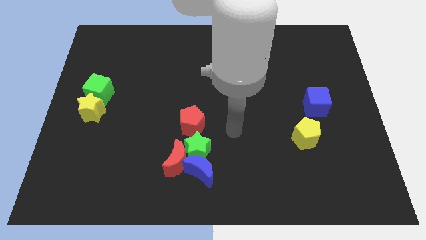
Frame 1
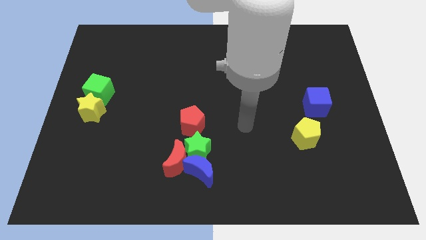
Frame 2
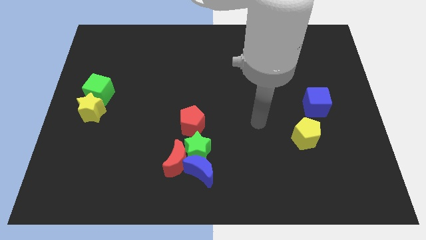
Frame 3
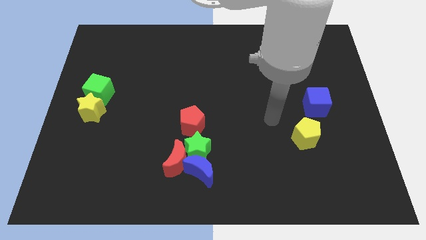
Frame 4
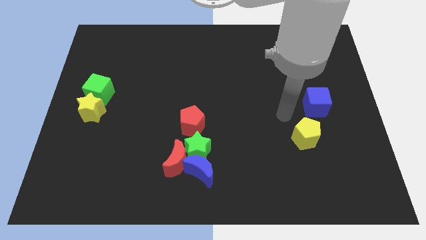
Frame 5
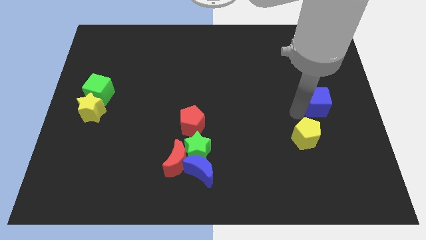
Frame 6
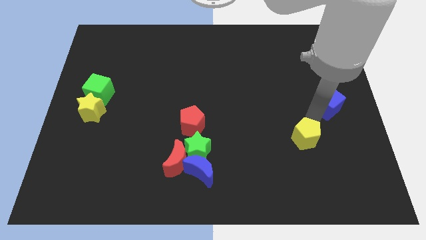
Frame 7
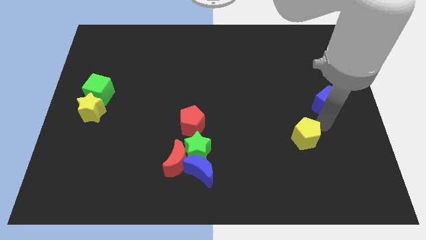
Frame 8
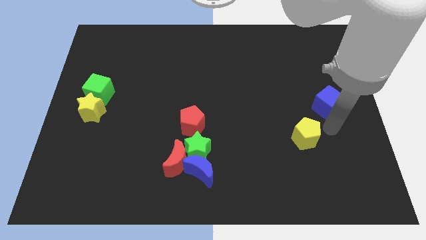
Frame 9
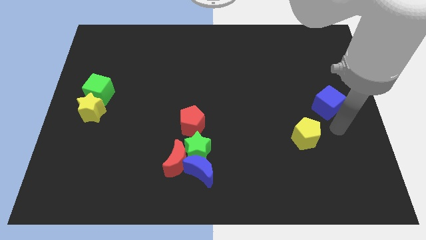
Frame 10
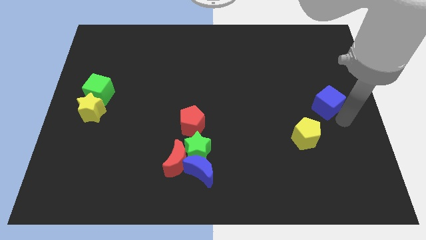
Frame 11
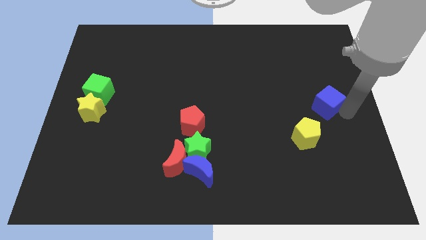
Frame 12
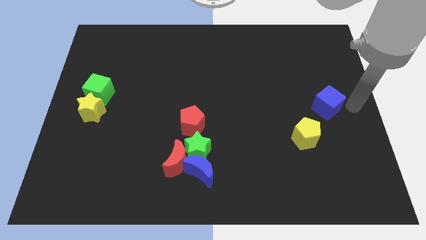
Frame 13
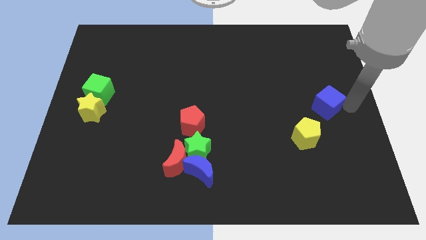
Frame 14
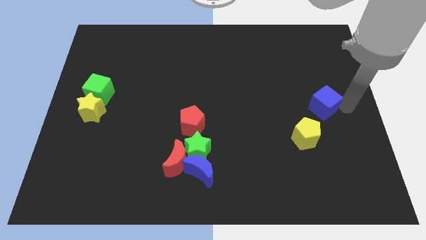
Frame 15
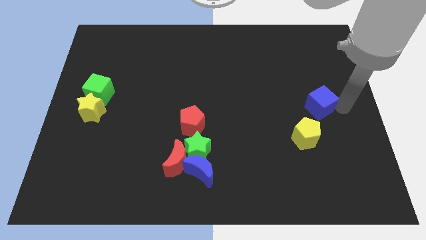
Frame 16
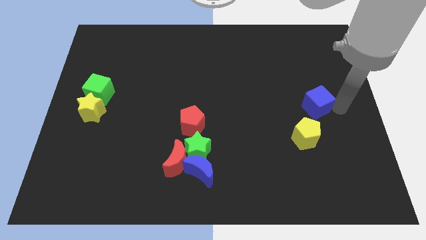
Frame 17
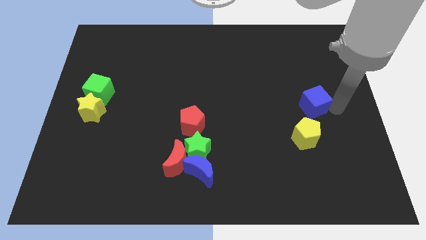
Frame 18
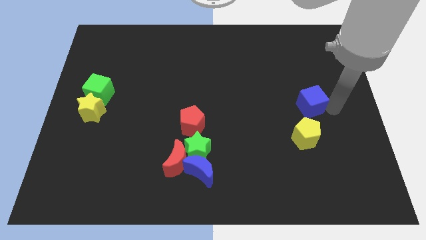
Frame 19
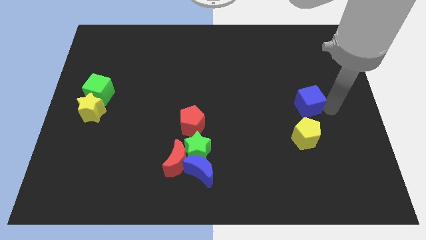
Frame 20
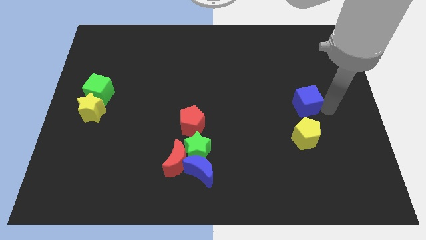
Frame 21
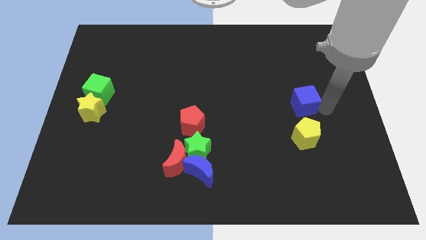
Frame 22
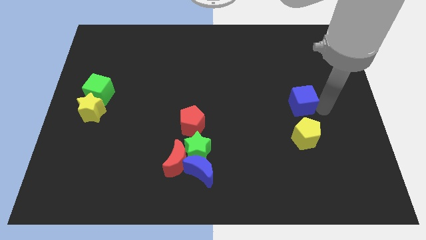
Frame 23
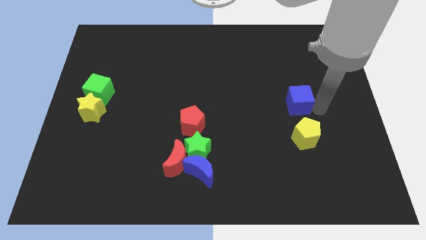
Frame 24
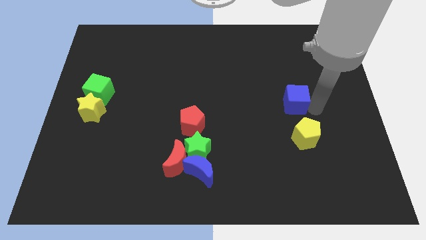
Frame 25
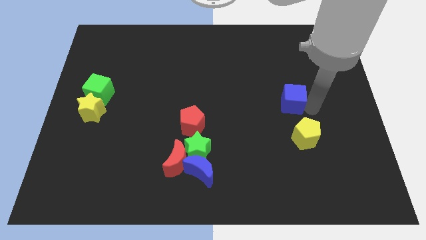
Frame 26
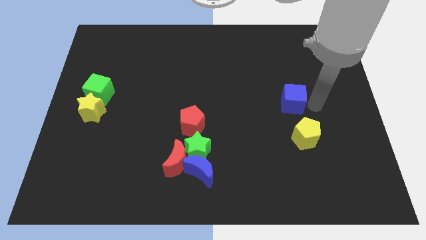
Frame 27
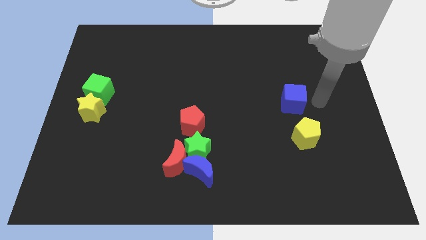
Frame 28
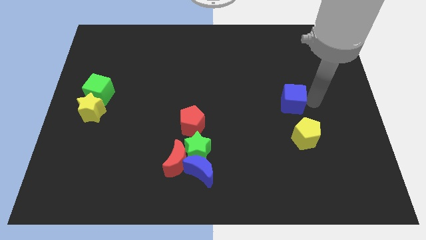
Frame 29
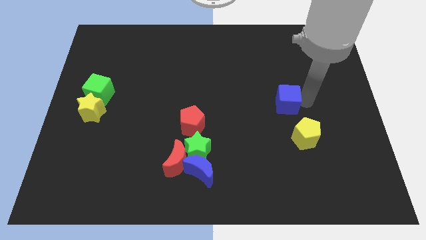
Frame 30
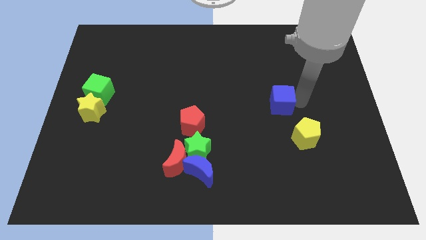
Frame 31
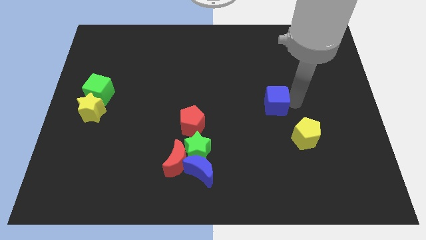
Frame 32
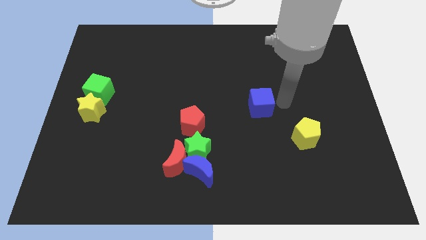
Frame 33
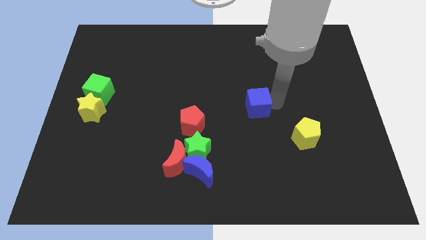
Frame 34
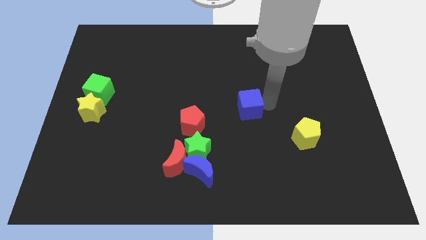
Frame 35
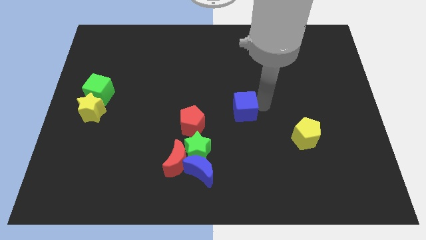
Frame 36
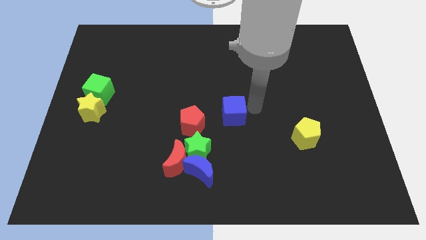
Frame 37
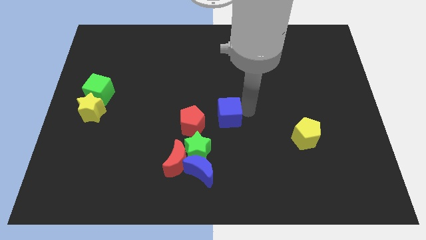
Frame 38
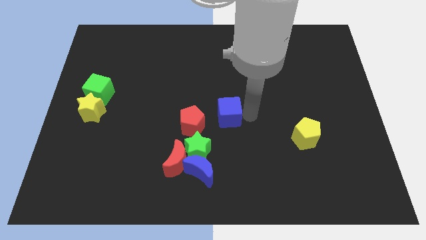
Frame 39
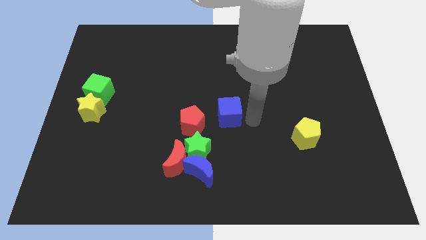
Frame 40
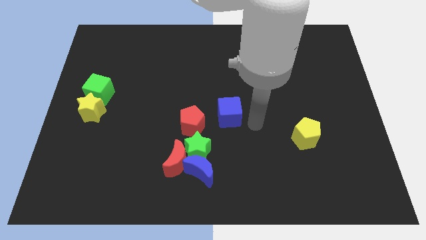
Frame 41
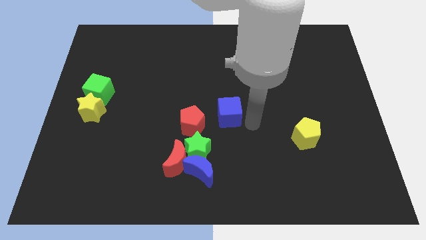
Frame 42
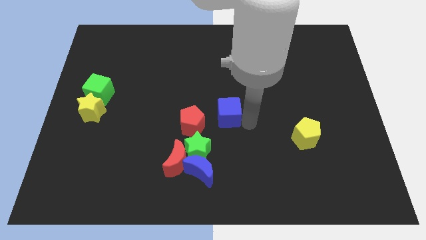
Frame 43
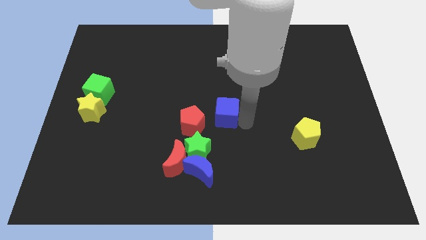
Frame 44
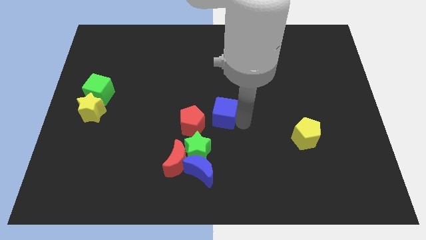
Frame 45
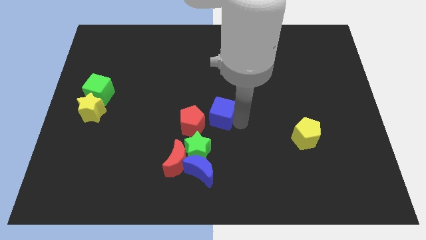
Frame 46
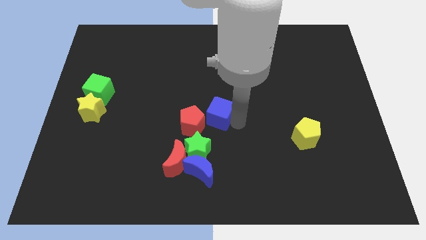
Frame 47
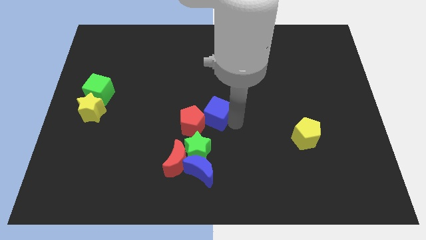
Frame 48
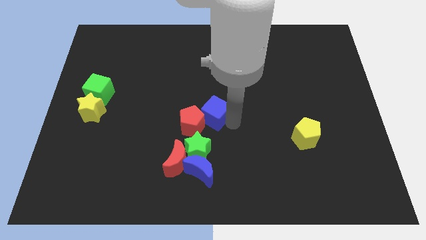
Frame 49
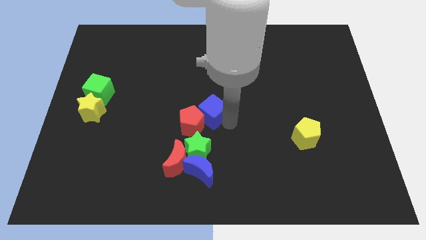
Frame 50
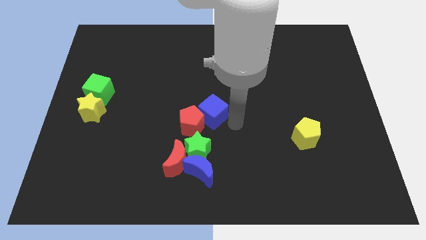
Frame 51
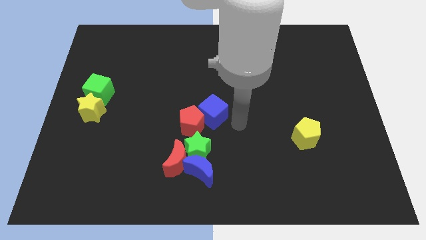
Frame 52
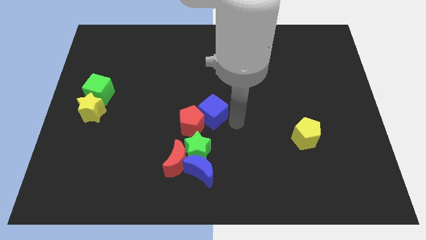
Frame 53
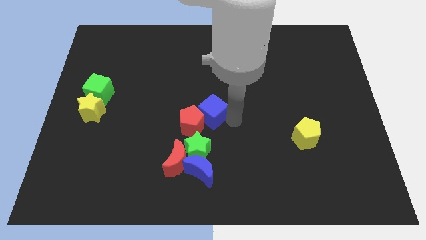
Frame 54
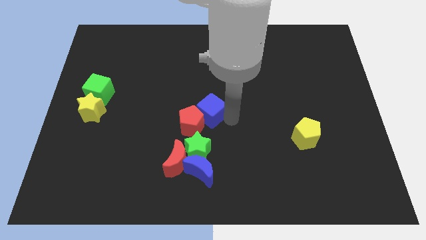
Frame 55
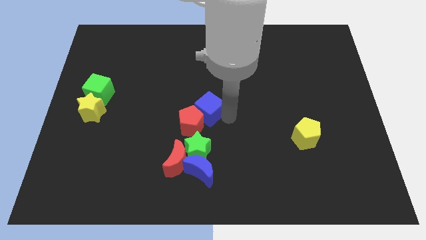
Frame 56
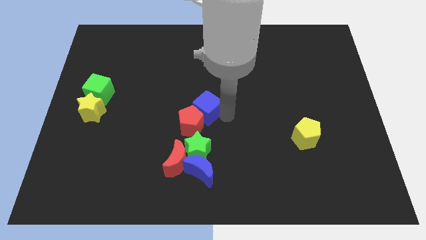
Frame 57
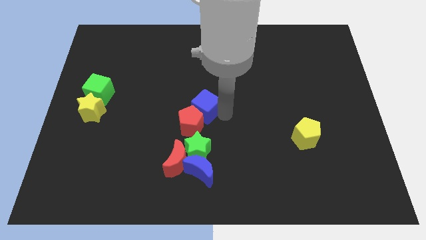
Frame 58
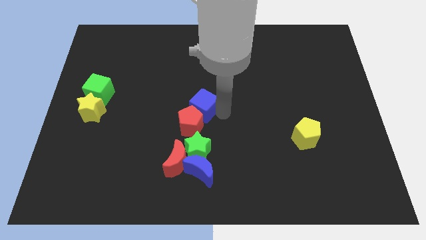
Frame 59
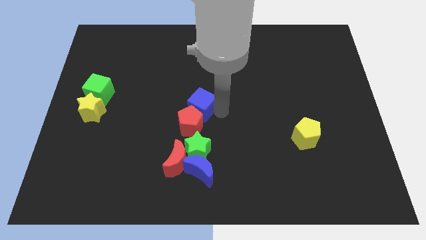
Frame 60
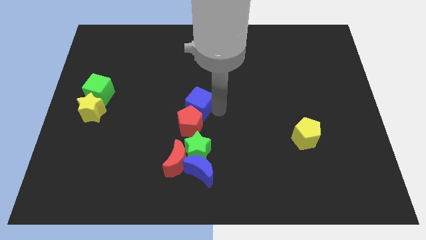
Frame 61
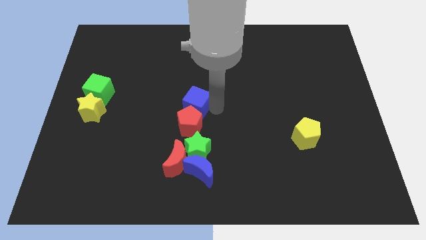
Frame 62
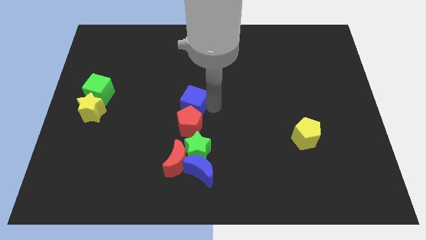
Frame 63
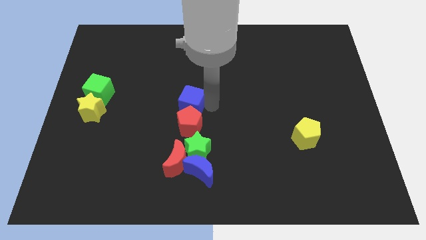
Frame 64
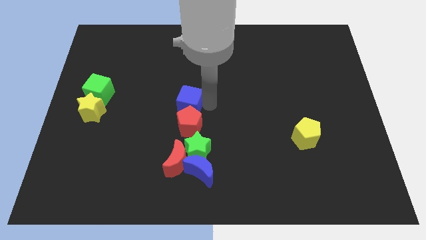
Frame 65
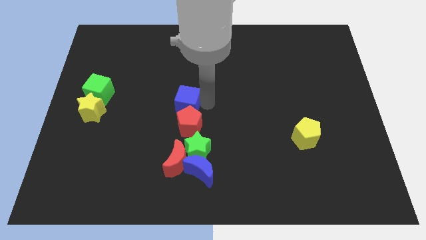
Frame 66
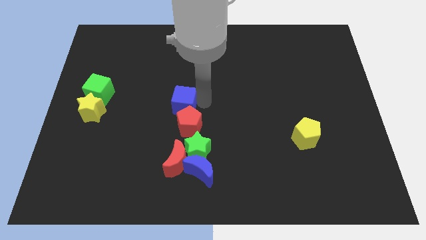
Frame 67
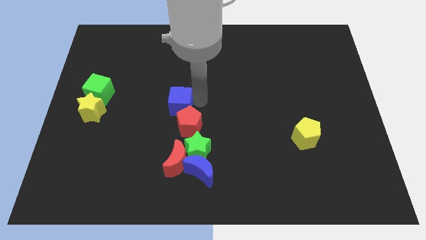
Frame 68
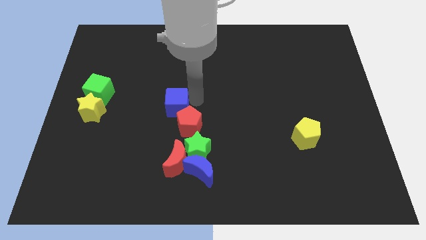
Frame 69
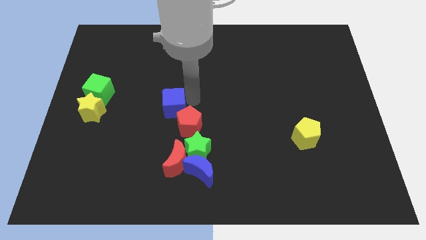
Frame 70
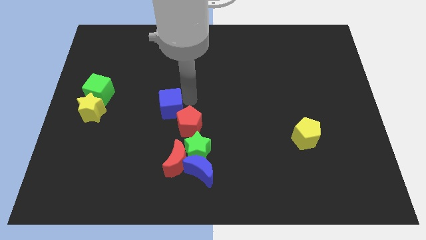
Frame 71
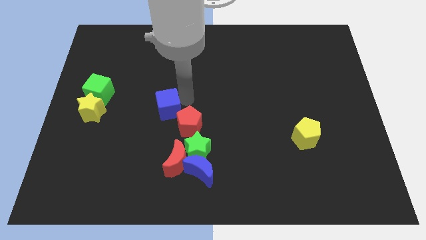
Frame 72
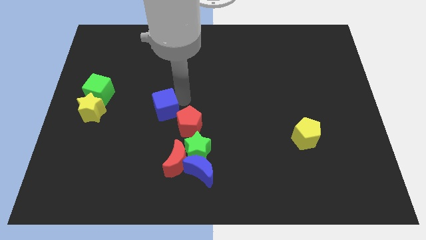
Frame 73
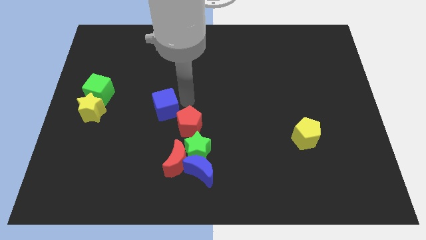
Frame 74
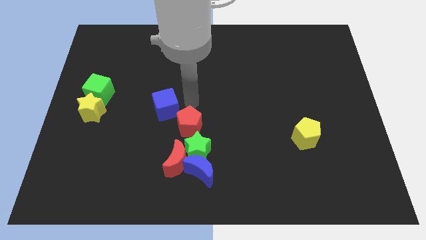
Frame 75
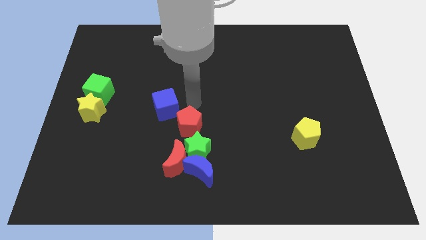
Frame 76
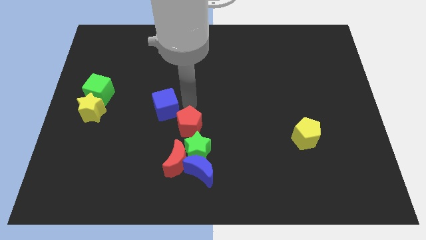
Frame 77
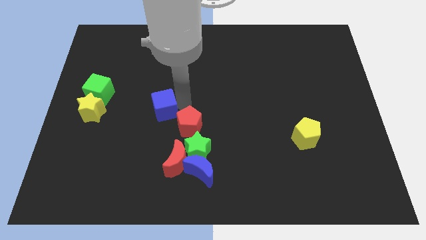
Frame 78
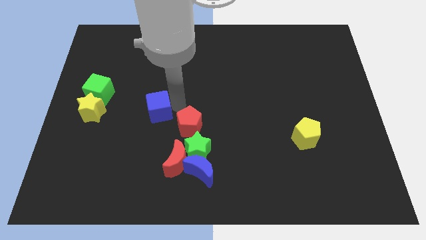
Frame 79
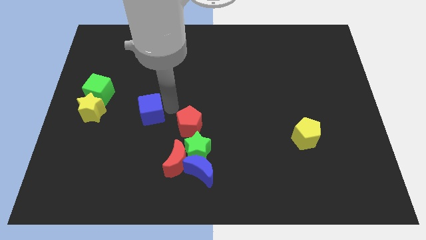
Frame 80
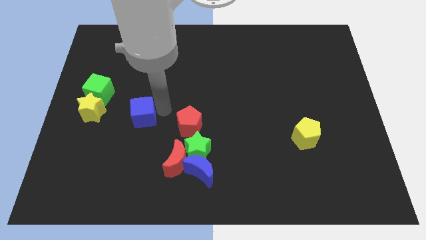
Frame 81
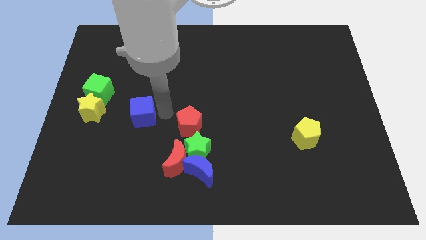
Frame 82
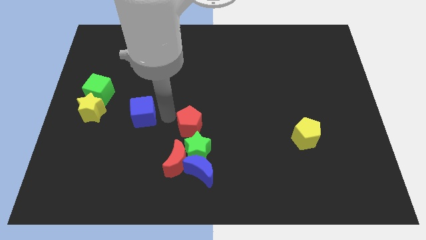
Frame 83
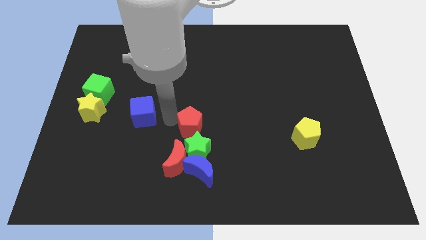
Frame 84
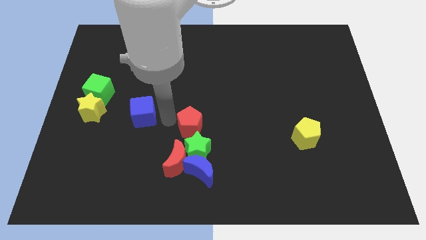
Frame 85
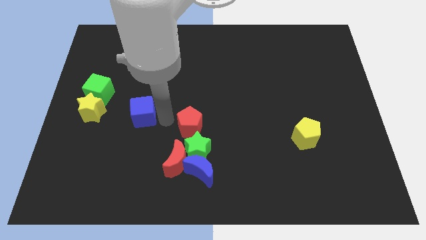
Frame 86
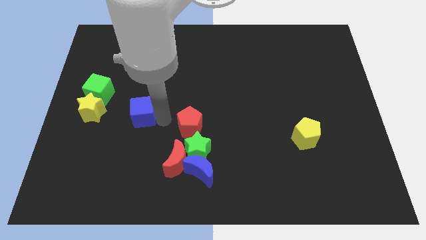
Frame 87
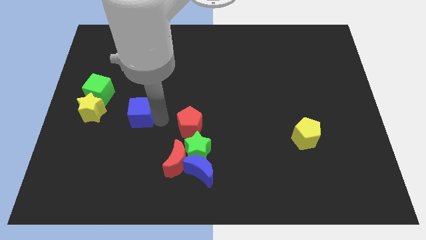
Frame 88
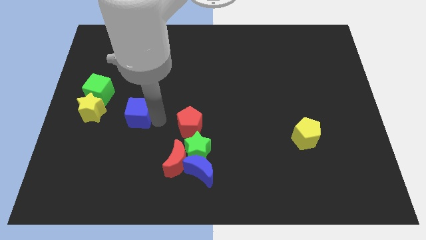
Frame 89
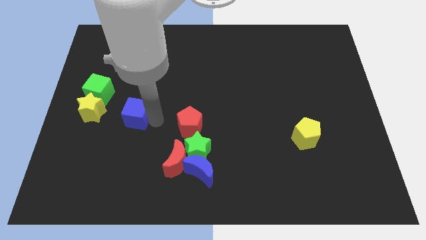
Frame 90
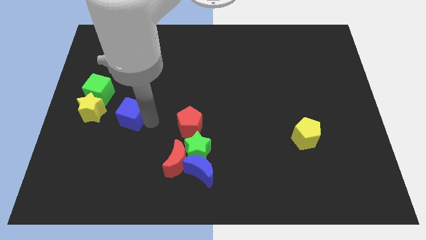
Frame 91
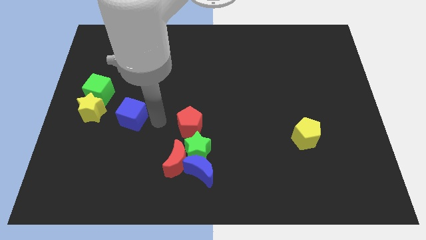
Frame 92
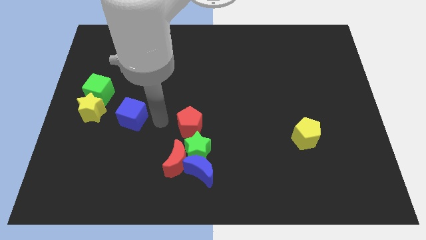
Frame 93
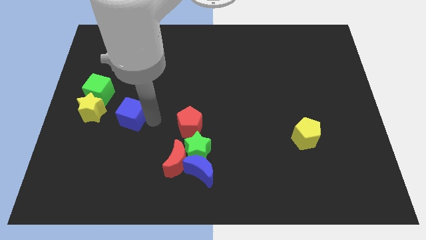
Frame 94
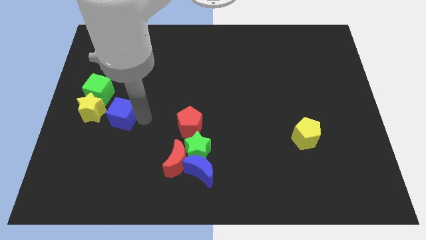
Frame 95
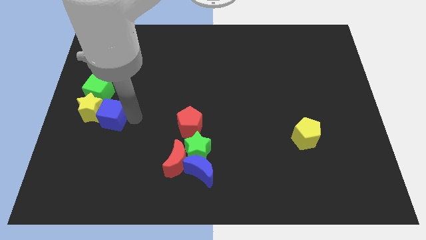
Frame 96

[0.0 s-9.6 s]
push the blue cube next to the yellow star
